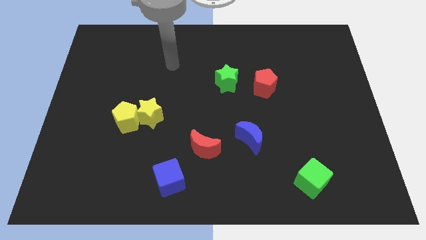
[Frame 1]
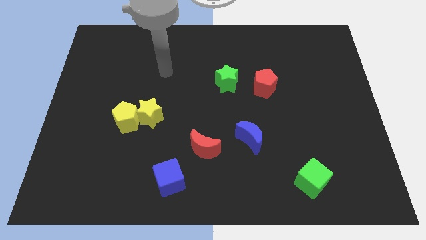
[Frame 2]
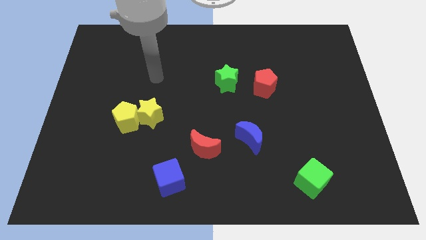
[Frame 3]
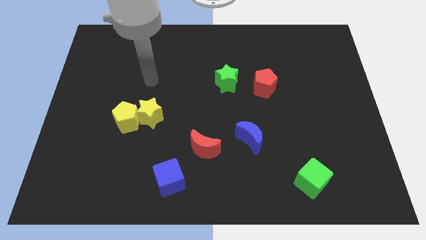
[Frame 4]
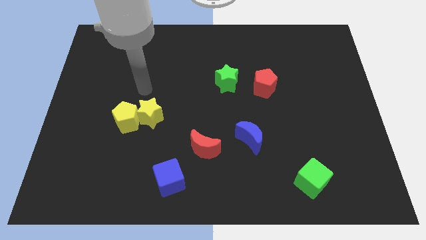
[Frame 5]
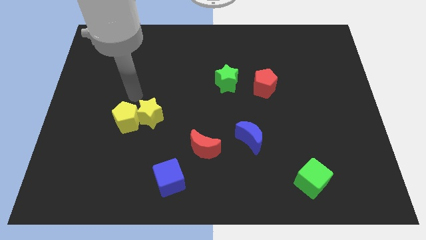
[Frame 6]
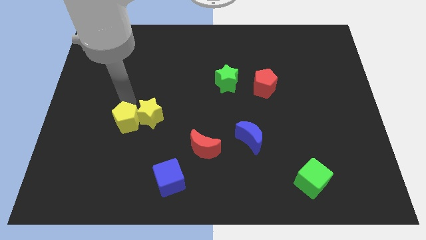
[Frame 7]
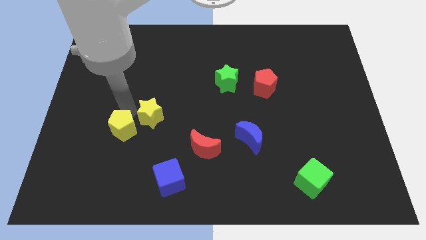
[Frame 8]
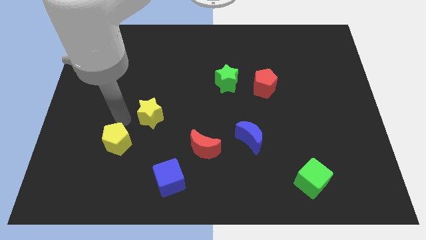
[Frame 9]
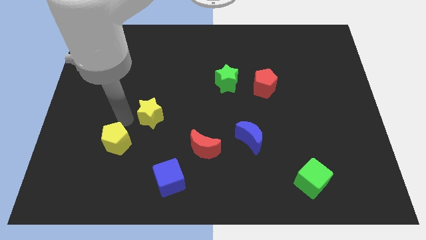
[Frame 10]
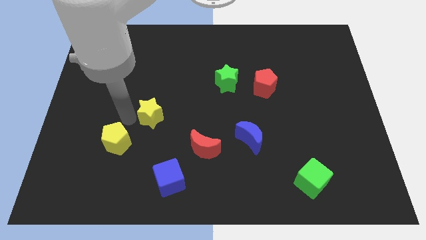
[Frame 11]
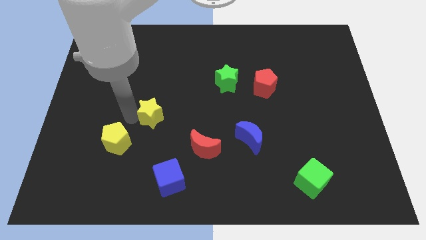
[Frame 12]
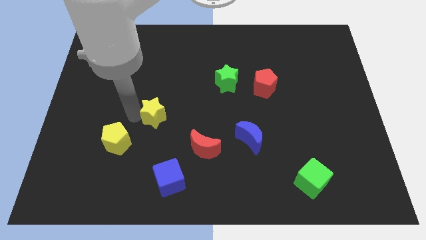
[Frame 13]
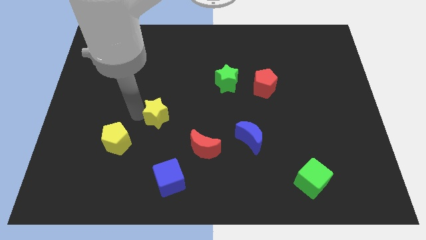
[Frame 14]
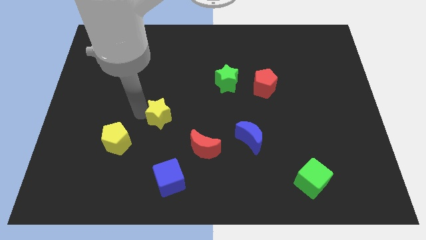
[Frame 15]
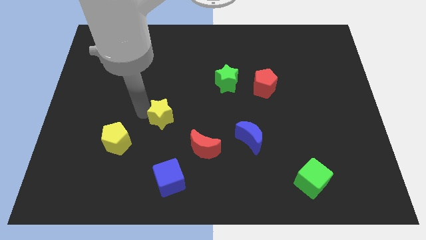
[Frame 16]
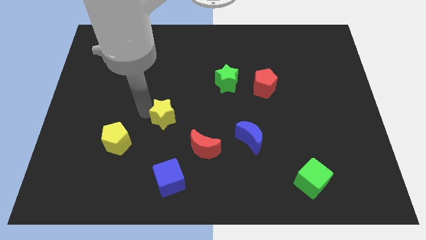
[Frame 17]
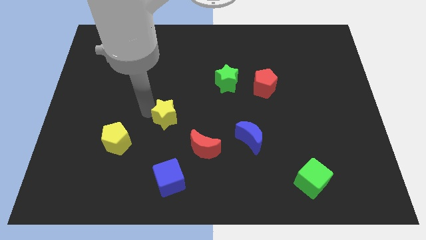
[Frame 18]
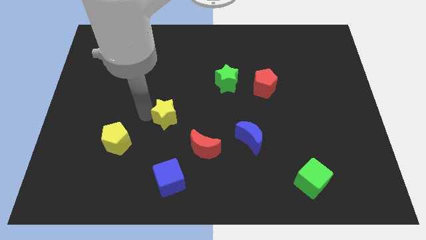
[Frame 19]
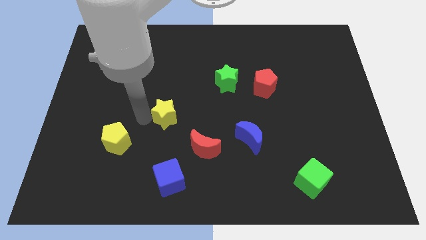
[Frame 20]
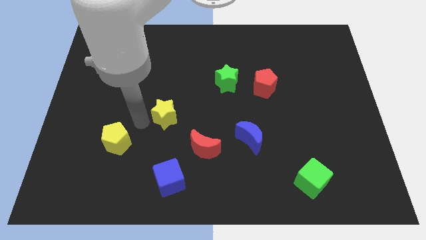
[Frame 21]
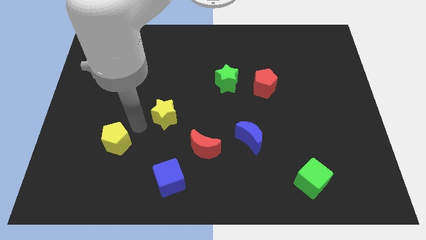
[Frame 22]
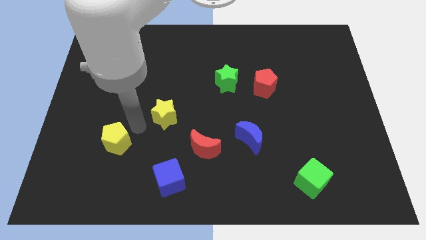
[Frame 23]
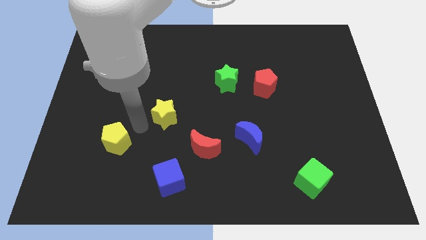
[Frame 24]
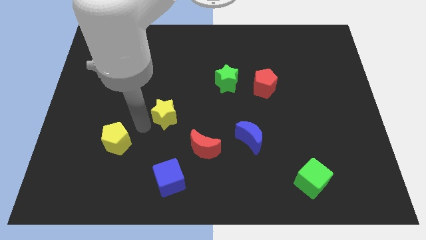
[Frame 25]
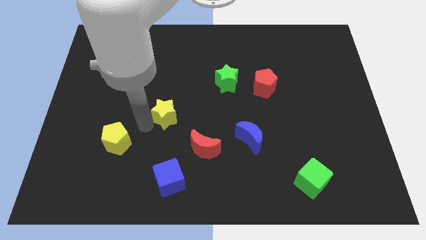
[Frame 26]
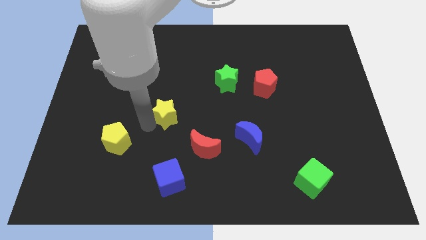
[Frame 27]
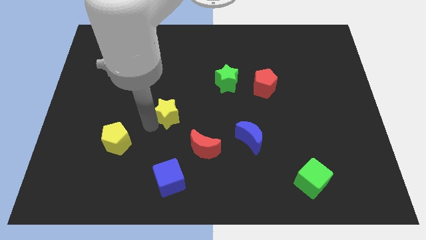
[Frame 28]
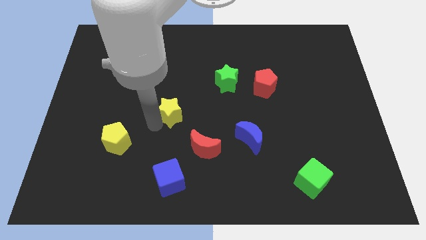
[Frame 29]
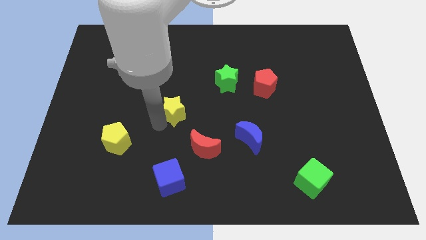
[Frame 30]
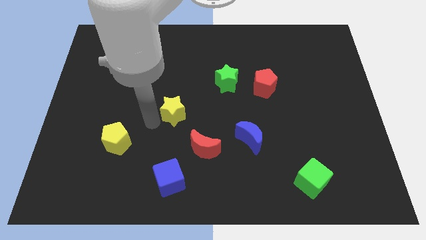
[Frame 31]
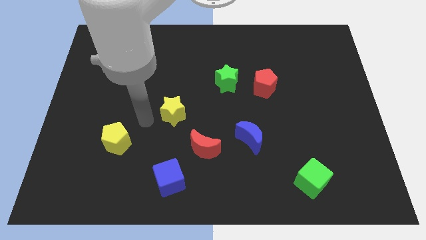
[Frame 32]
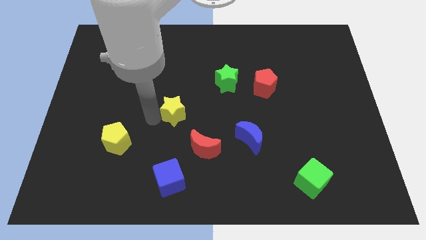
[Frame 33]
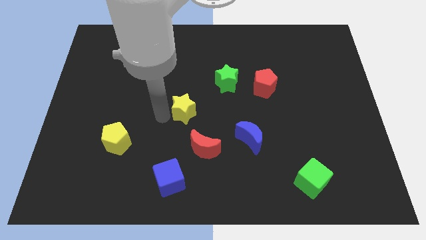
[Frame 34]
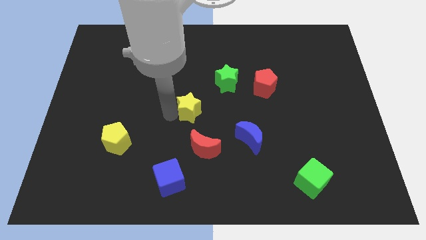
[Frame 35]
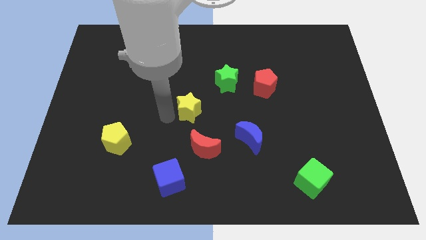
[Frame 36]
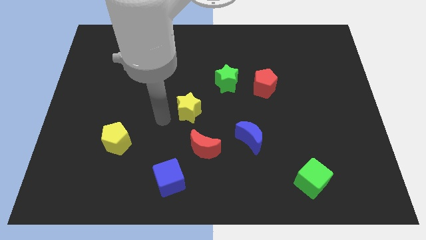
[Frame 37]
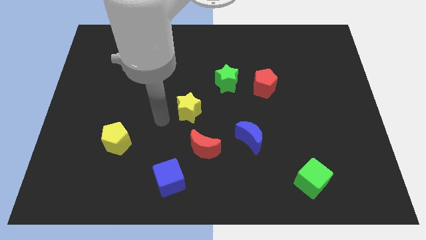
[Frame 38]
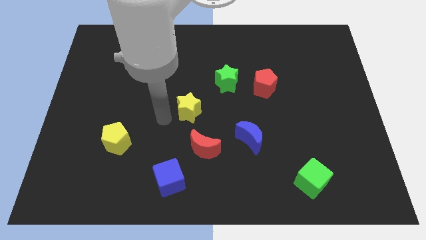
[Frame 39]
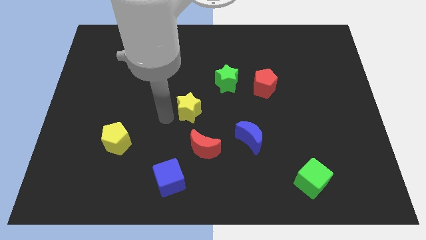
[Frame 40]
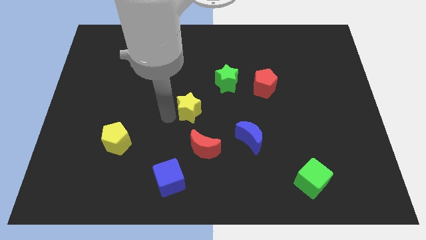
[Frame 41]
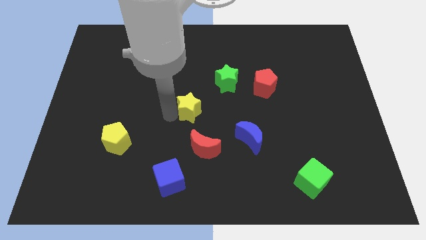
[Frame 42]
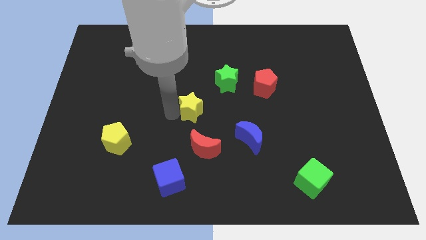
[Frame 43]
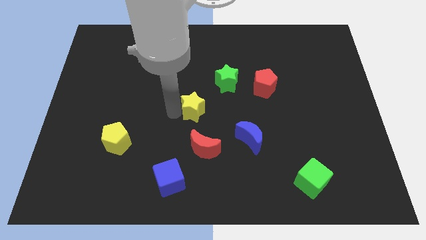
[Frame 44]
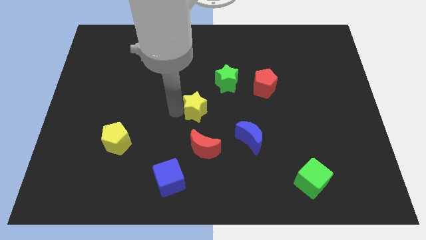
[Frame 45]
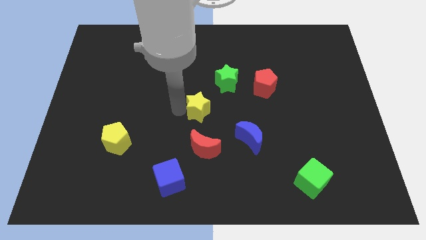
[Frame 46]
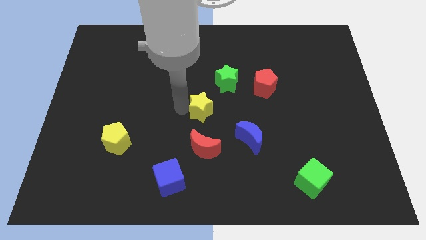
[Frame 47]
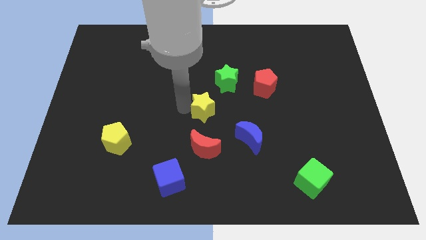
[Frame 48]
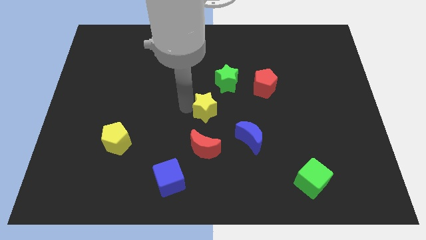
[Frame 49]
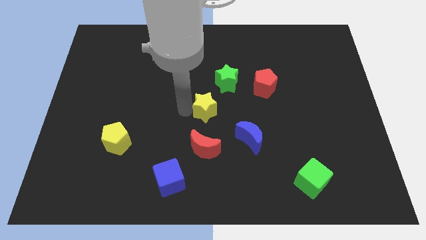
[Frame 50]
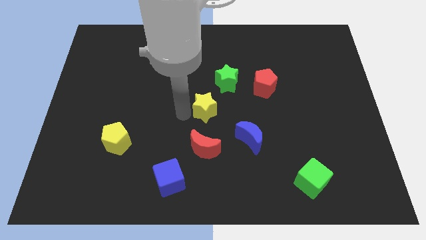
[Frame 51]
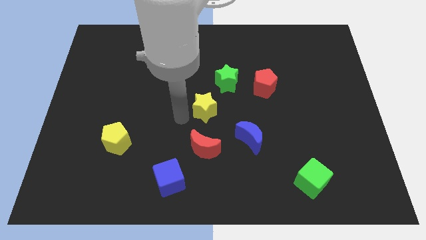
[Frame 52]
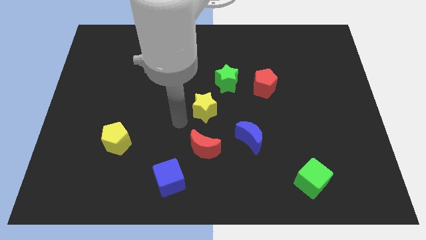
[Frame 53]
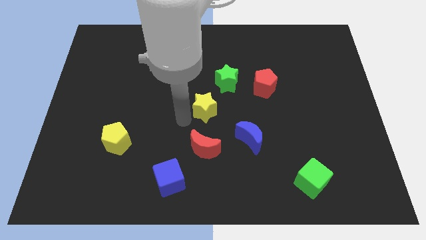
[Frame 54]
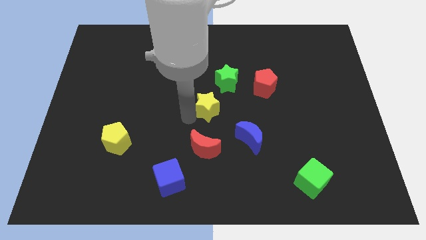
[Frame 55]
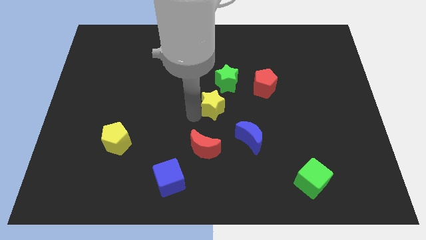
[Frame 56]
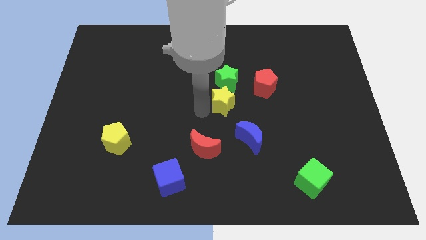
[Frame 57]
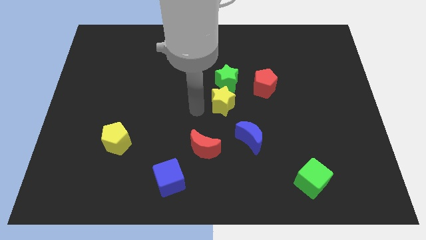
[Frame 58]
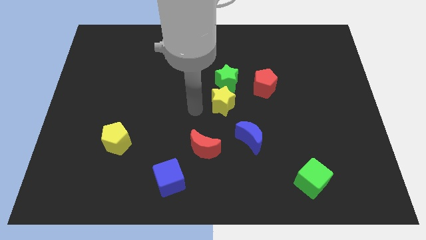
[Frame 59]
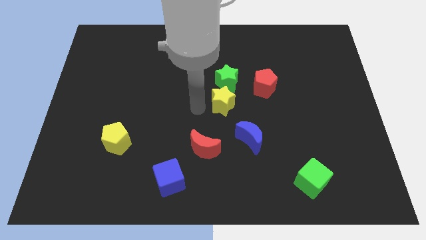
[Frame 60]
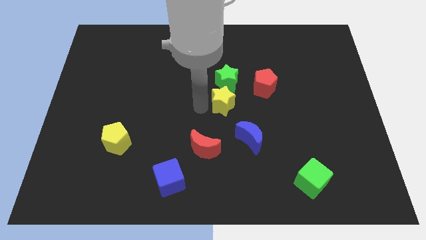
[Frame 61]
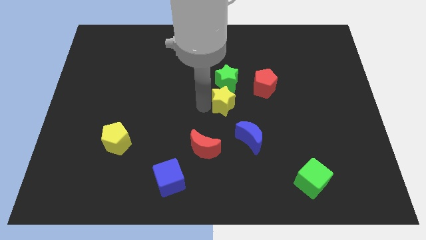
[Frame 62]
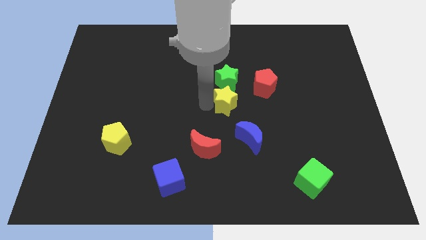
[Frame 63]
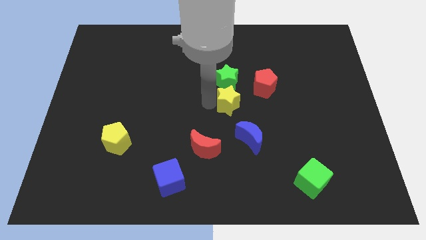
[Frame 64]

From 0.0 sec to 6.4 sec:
move the yellow star to the bottom right side of the green star

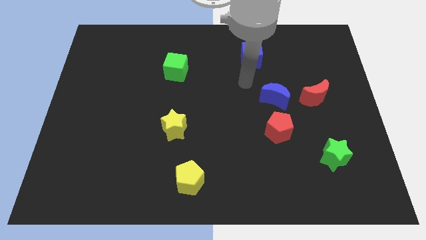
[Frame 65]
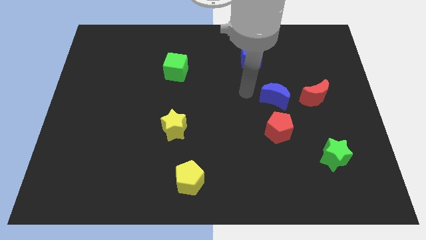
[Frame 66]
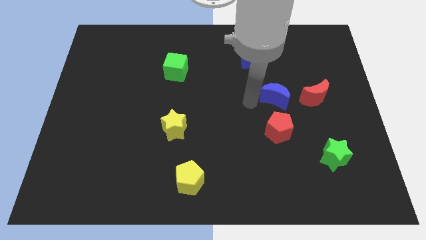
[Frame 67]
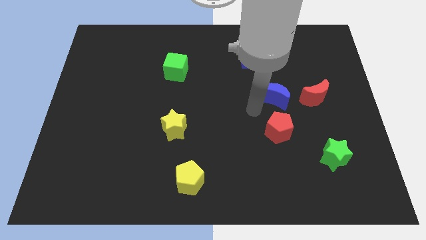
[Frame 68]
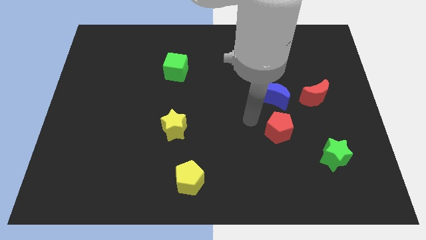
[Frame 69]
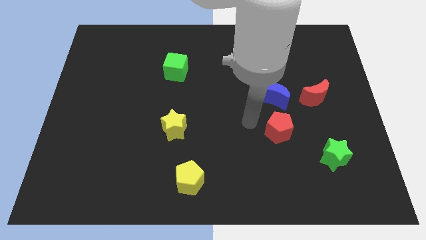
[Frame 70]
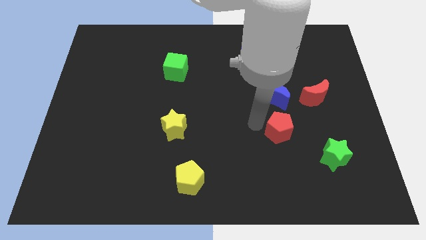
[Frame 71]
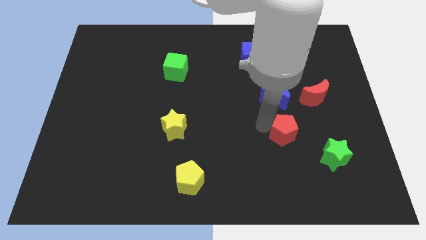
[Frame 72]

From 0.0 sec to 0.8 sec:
put the red pentagon diagonally up and to the left of the green star
